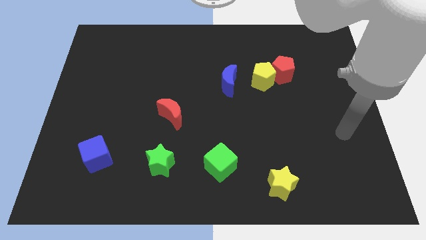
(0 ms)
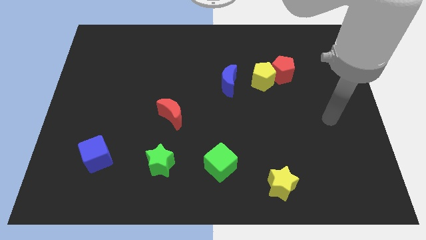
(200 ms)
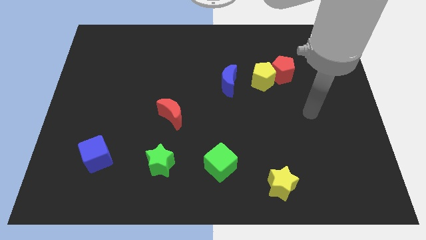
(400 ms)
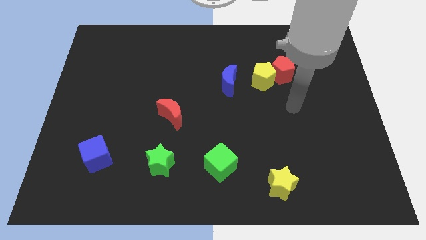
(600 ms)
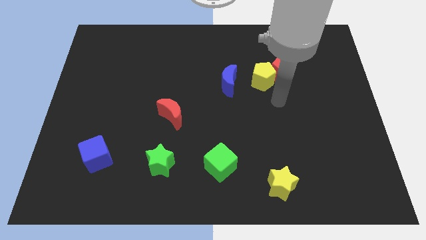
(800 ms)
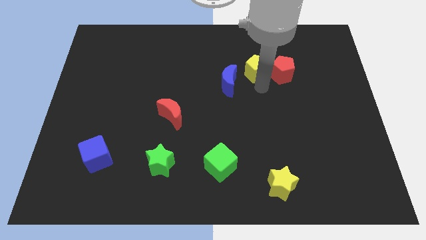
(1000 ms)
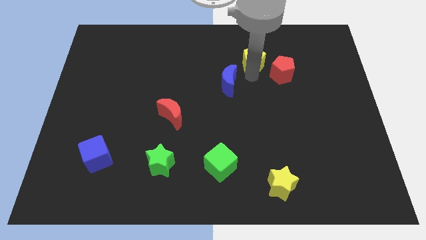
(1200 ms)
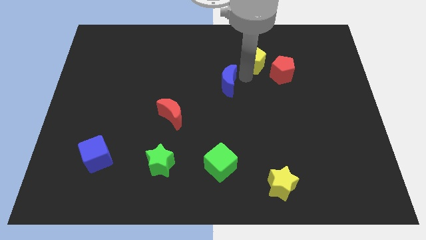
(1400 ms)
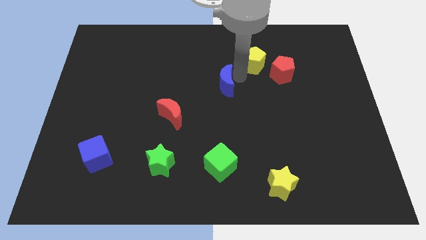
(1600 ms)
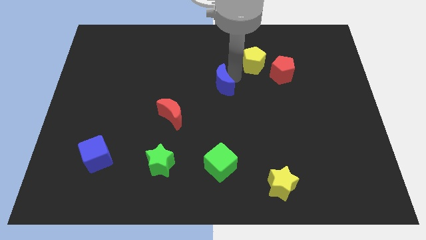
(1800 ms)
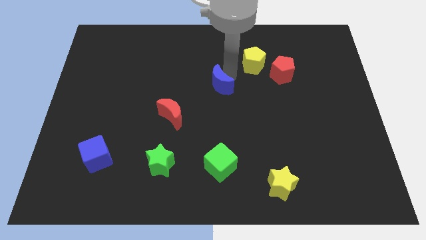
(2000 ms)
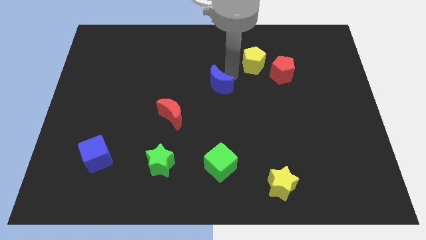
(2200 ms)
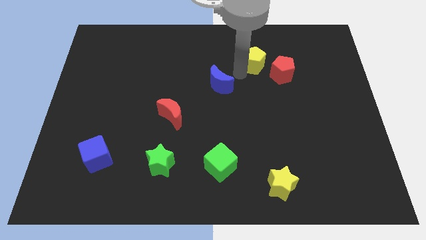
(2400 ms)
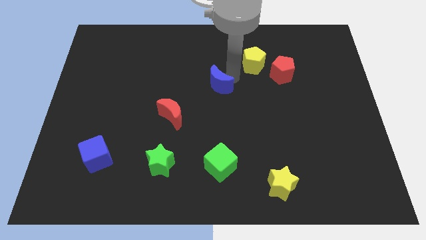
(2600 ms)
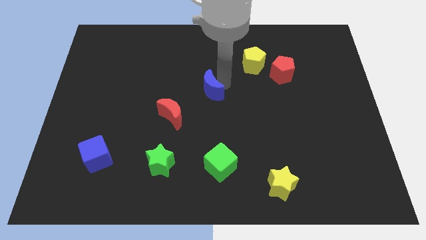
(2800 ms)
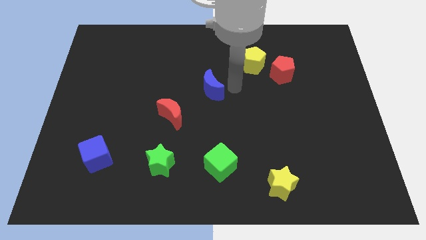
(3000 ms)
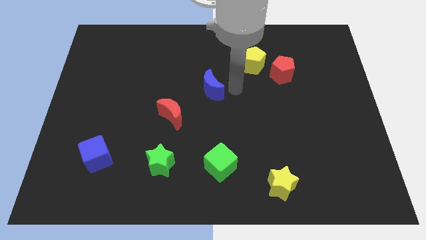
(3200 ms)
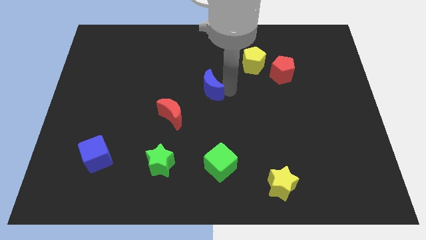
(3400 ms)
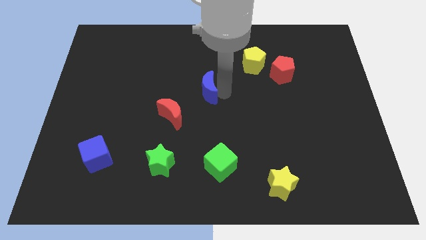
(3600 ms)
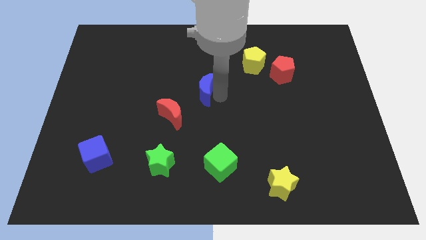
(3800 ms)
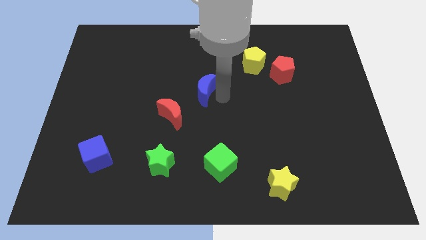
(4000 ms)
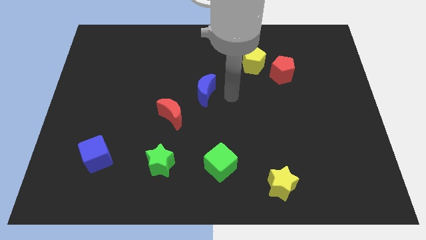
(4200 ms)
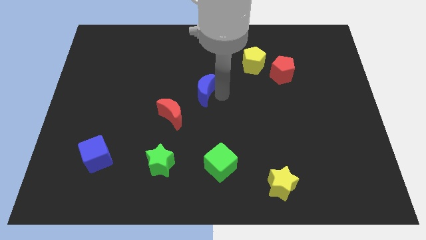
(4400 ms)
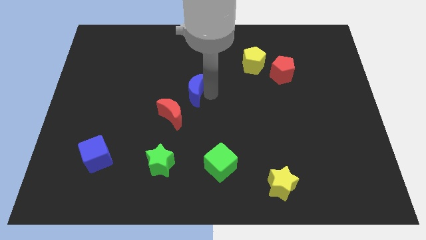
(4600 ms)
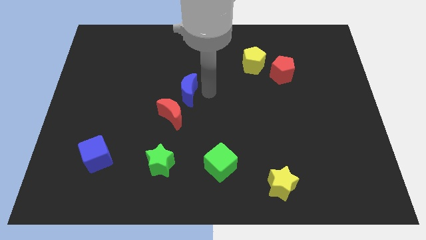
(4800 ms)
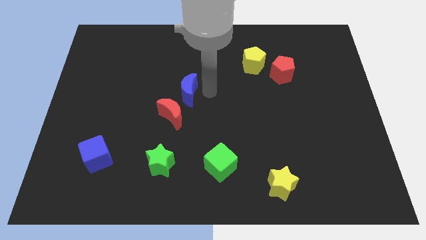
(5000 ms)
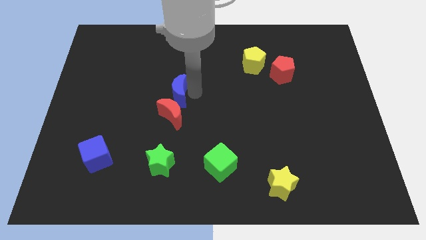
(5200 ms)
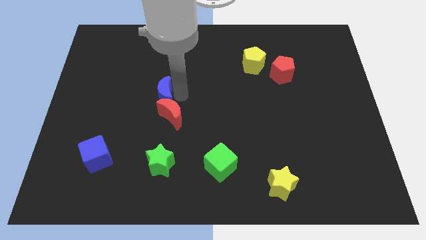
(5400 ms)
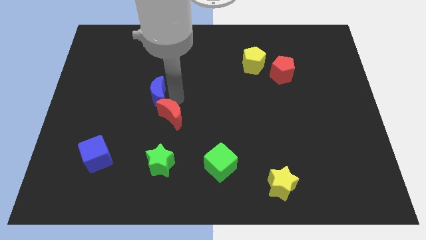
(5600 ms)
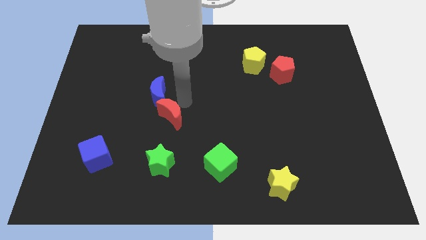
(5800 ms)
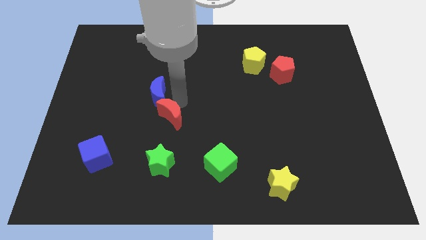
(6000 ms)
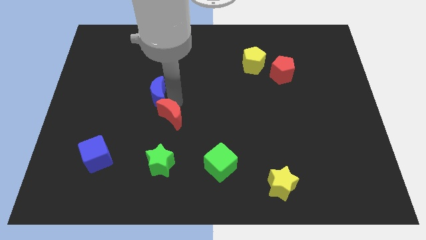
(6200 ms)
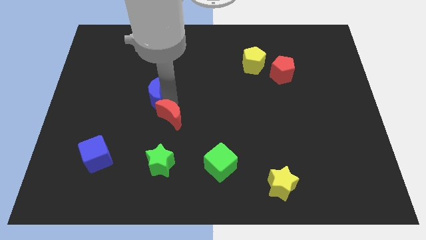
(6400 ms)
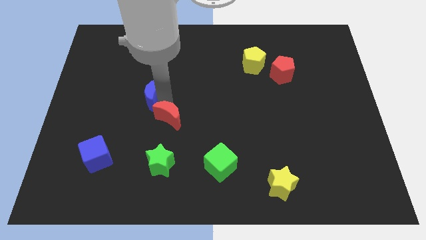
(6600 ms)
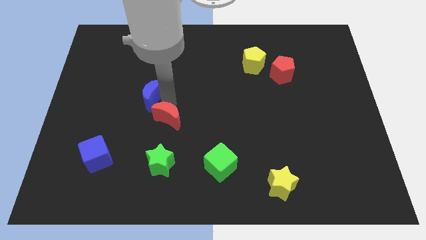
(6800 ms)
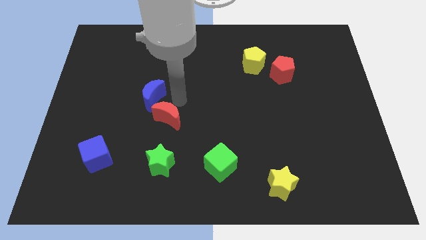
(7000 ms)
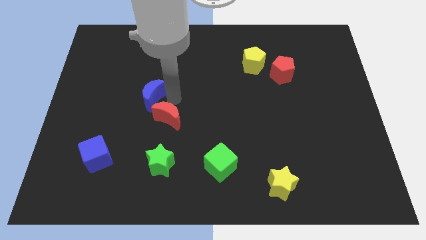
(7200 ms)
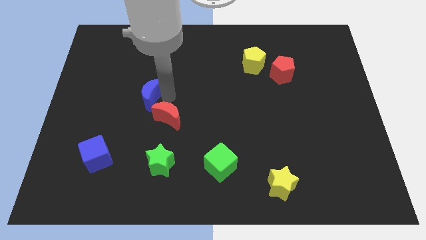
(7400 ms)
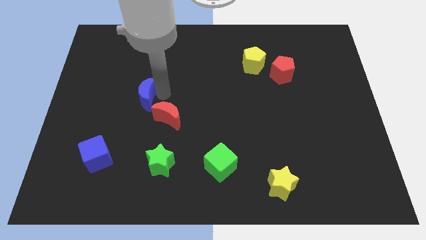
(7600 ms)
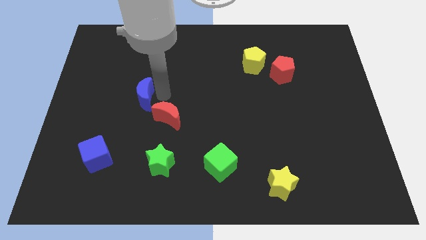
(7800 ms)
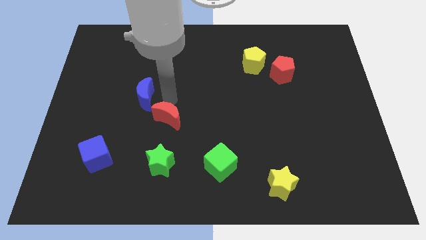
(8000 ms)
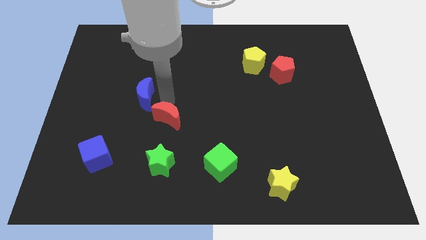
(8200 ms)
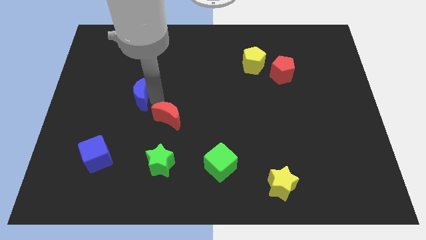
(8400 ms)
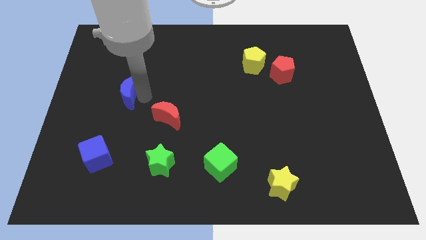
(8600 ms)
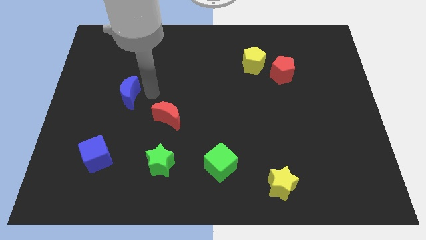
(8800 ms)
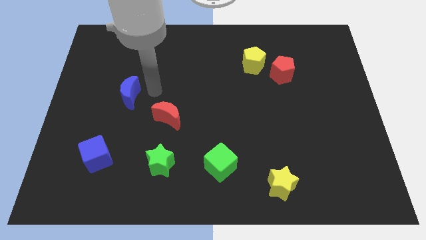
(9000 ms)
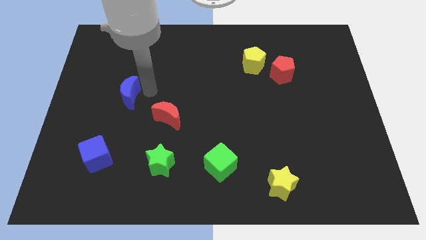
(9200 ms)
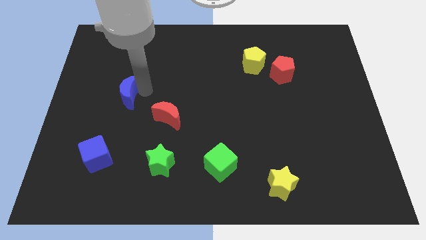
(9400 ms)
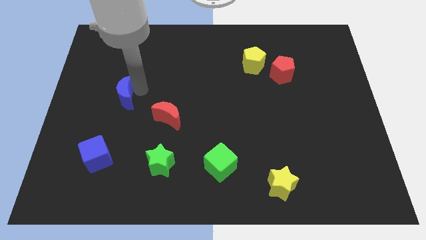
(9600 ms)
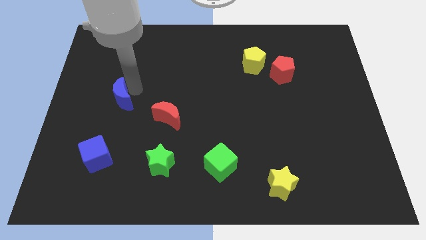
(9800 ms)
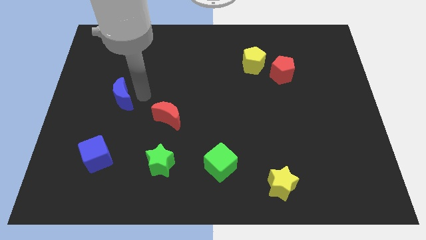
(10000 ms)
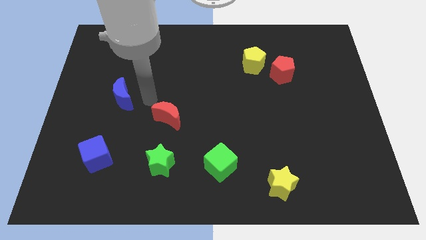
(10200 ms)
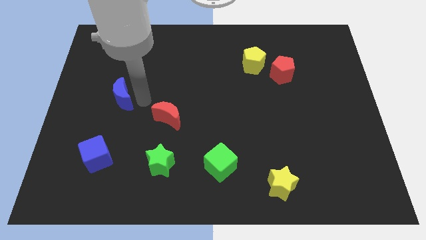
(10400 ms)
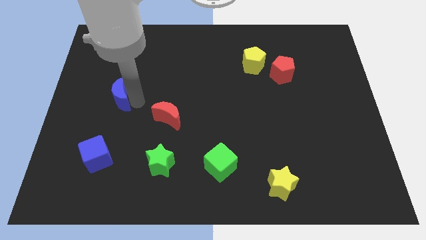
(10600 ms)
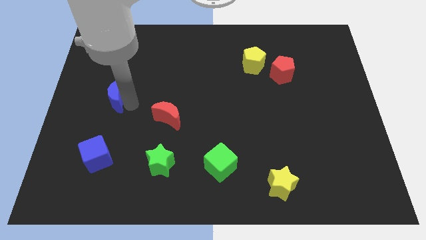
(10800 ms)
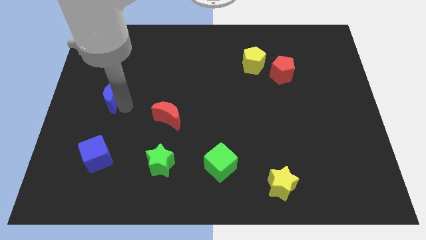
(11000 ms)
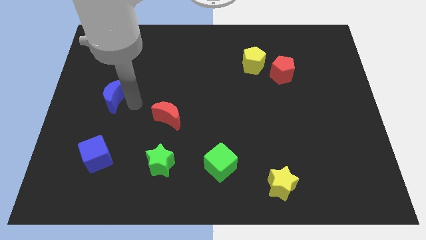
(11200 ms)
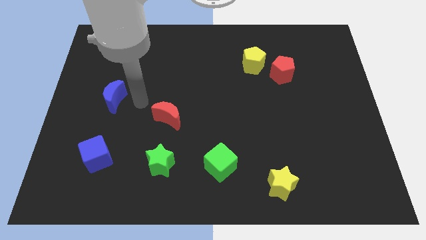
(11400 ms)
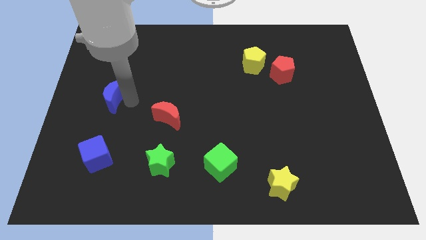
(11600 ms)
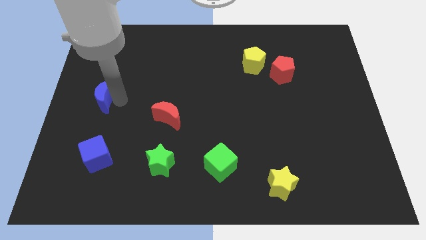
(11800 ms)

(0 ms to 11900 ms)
slide the blue moon to the center left
